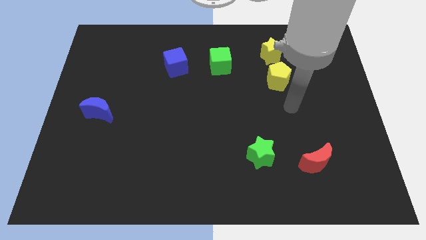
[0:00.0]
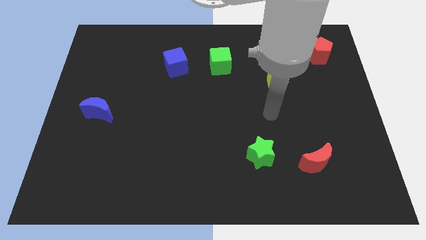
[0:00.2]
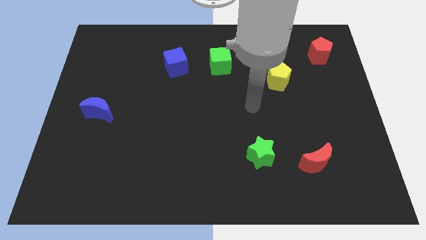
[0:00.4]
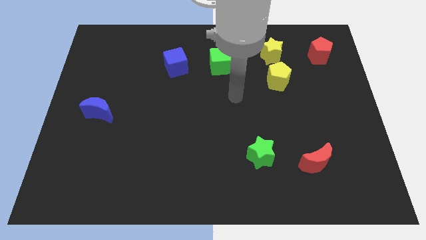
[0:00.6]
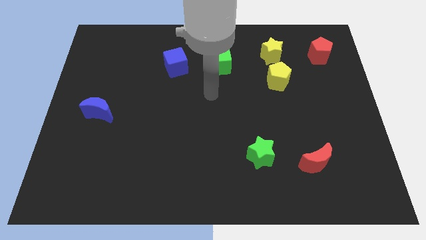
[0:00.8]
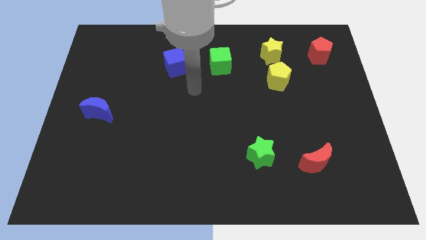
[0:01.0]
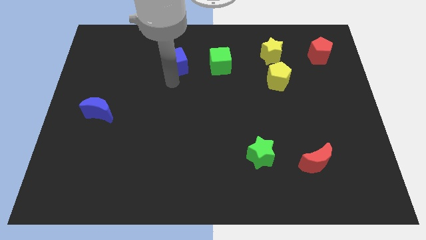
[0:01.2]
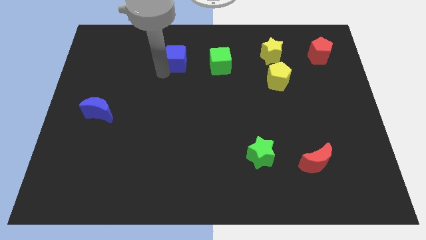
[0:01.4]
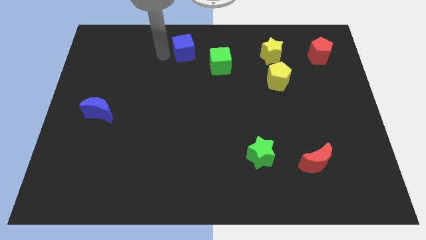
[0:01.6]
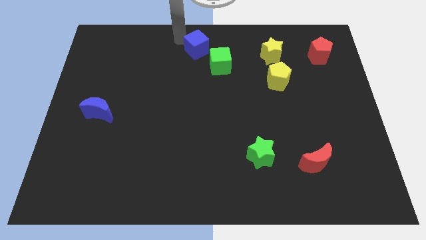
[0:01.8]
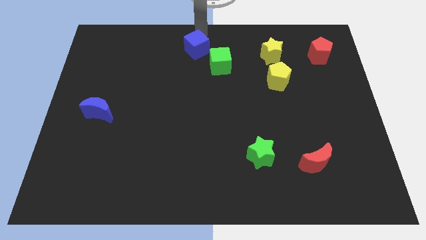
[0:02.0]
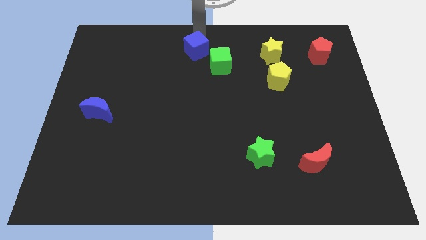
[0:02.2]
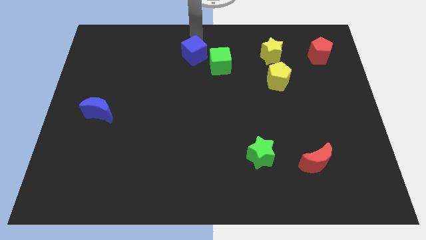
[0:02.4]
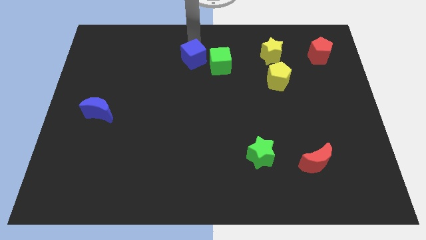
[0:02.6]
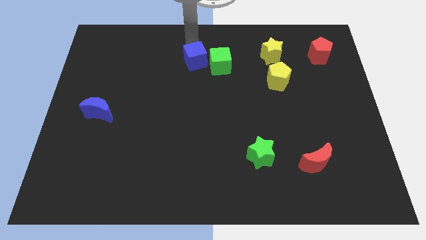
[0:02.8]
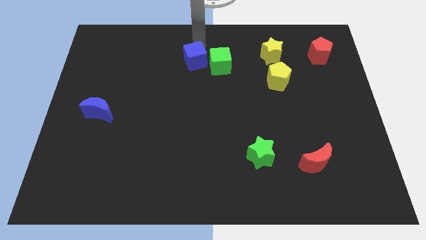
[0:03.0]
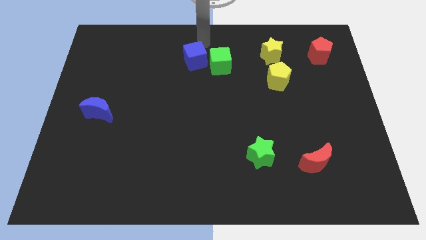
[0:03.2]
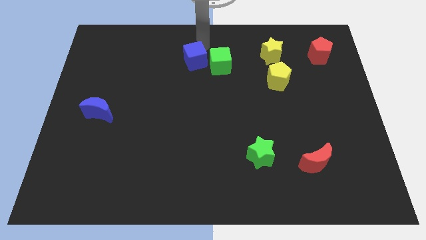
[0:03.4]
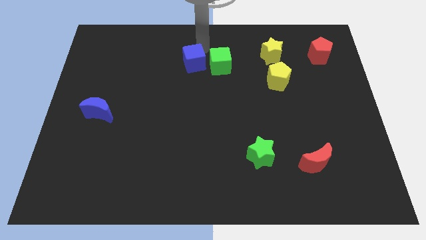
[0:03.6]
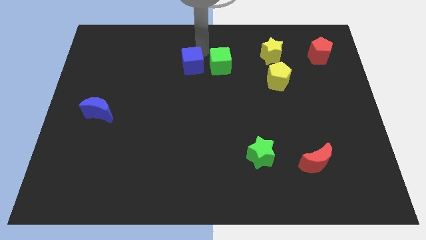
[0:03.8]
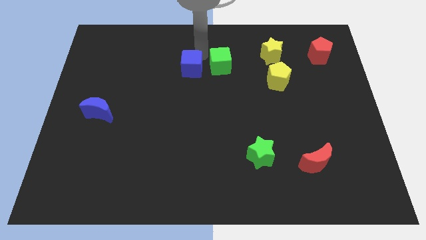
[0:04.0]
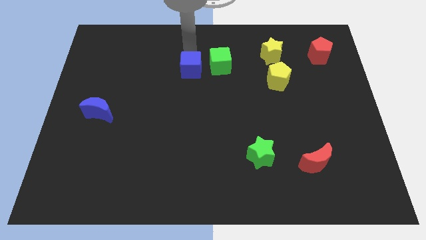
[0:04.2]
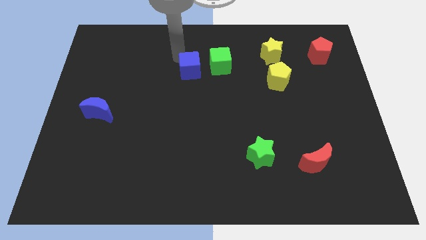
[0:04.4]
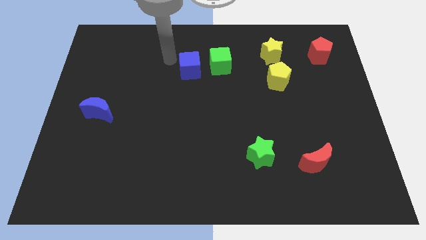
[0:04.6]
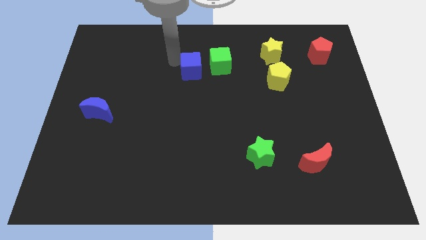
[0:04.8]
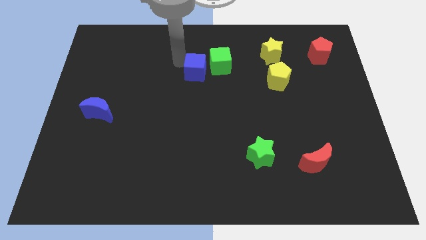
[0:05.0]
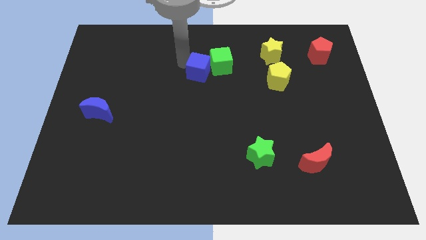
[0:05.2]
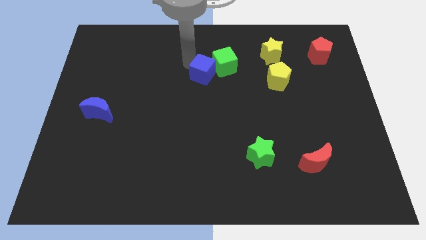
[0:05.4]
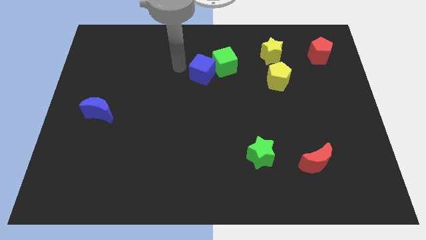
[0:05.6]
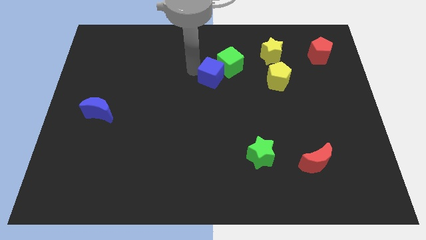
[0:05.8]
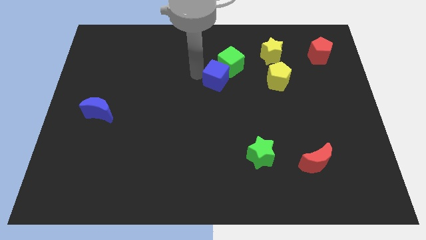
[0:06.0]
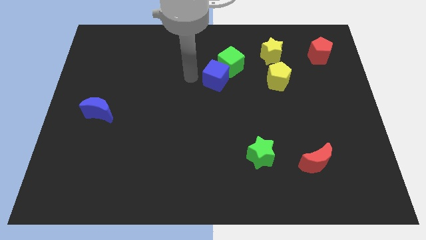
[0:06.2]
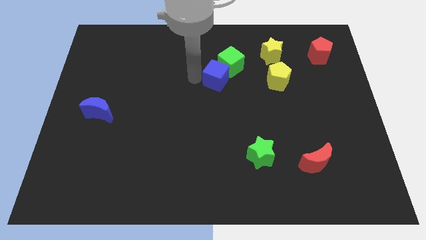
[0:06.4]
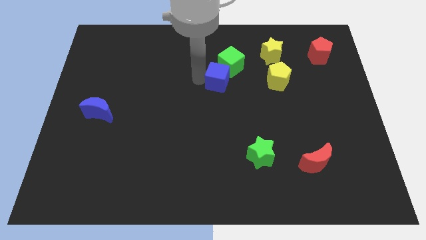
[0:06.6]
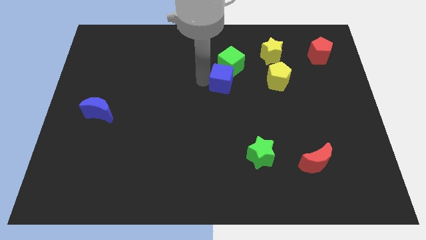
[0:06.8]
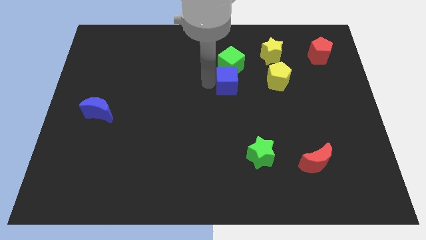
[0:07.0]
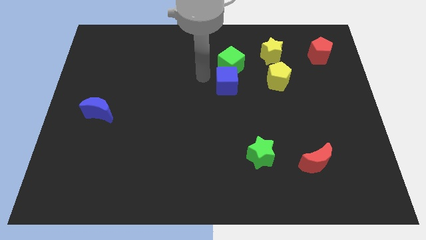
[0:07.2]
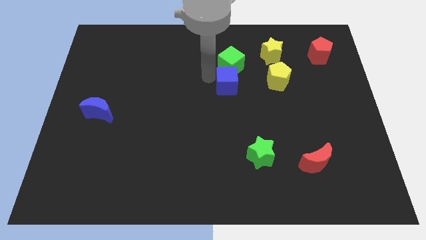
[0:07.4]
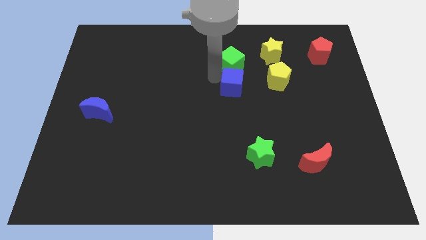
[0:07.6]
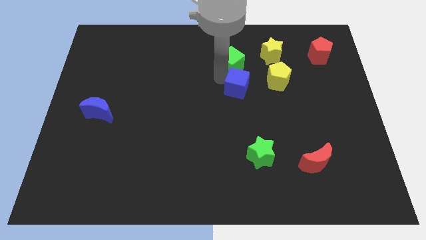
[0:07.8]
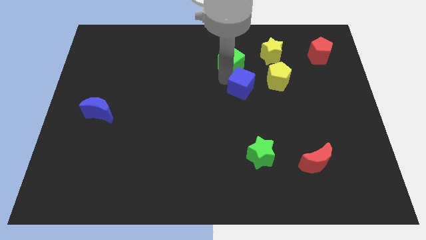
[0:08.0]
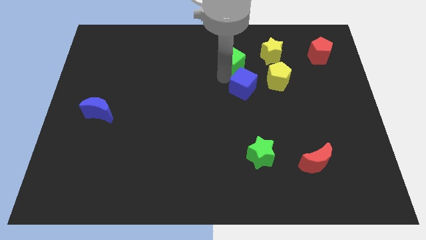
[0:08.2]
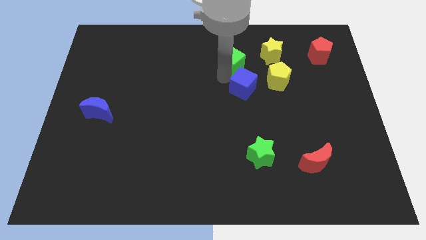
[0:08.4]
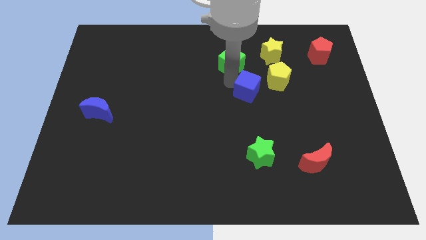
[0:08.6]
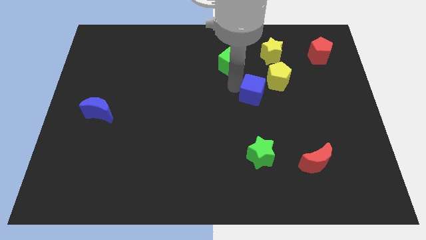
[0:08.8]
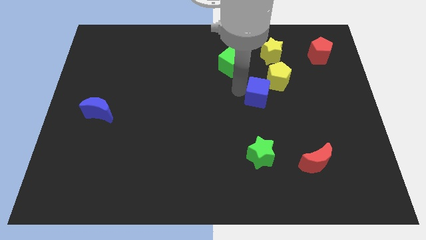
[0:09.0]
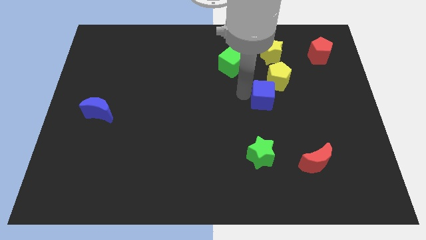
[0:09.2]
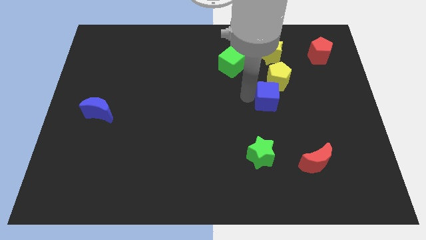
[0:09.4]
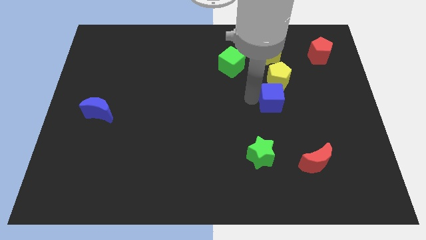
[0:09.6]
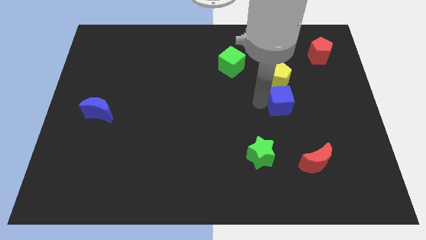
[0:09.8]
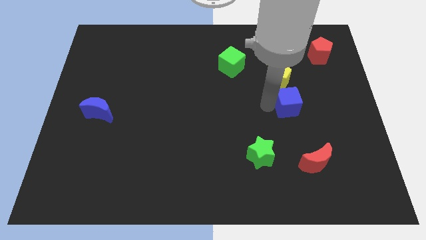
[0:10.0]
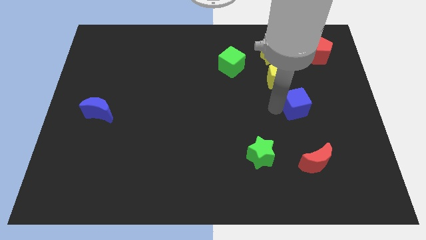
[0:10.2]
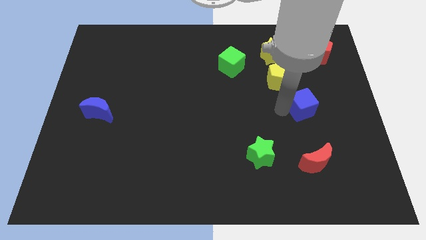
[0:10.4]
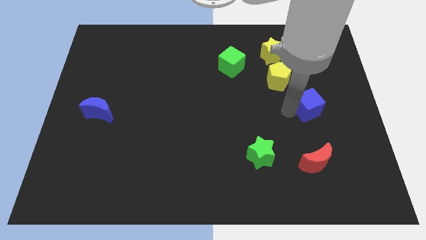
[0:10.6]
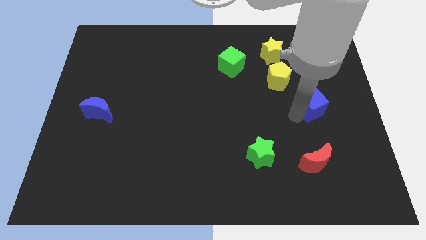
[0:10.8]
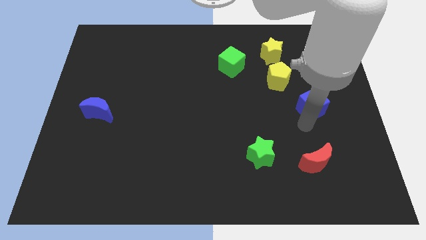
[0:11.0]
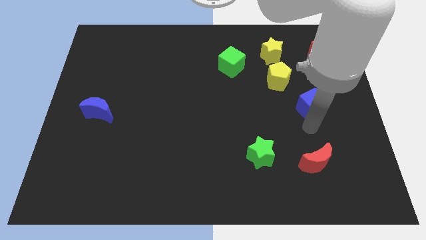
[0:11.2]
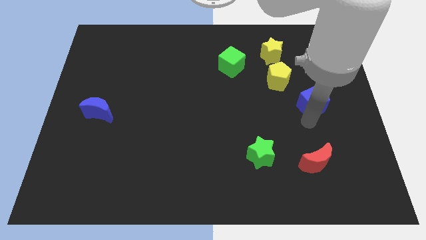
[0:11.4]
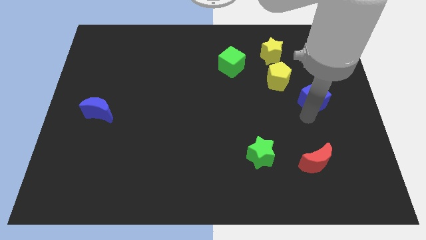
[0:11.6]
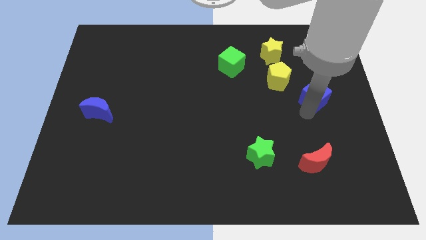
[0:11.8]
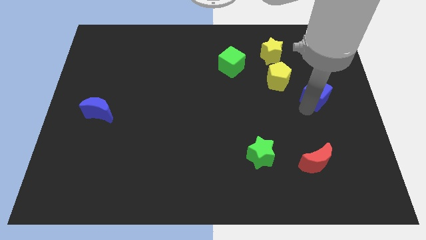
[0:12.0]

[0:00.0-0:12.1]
slide the blue cube below the red pentagon
